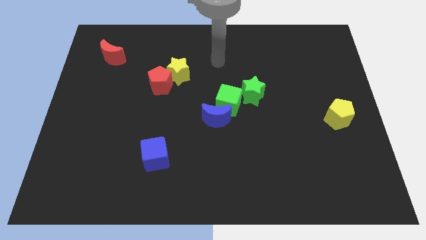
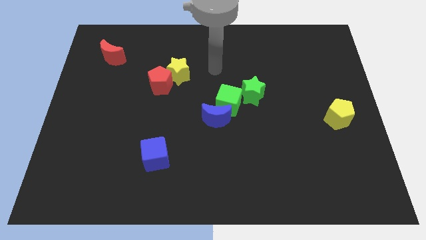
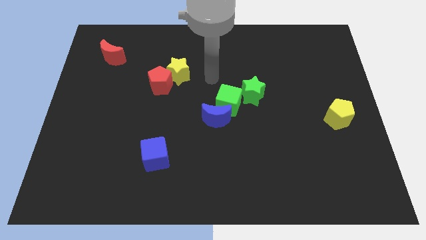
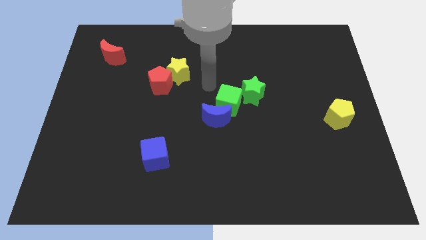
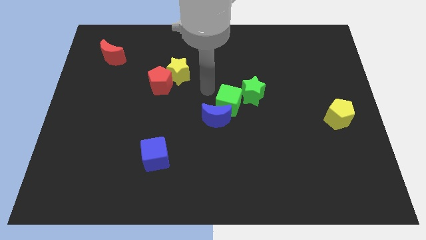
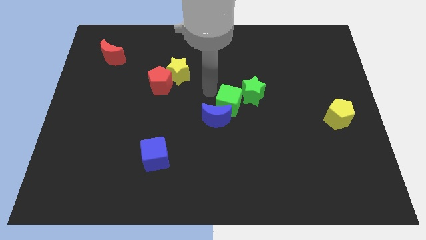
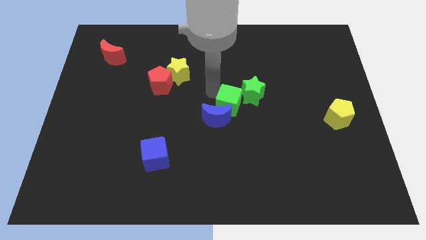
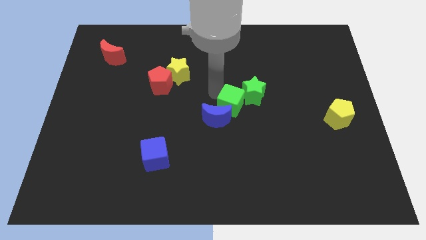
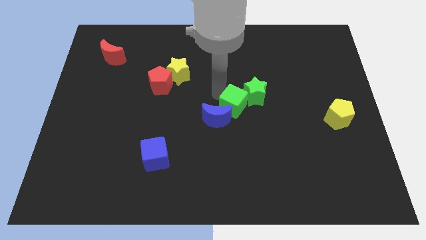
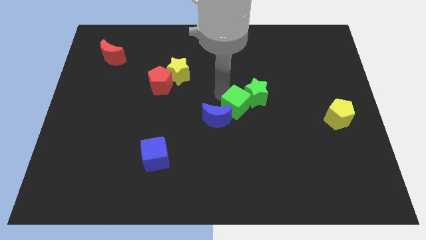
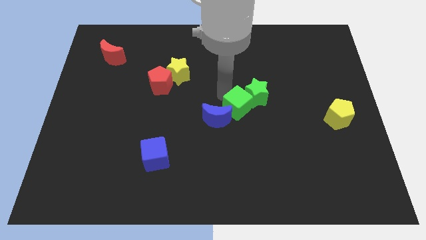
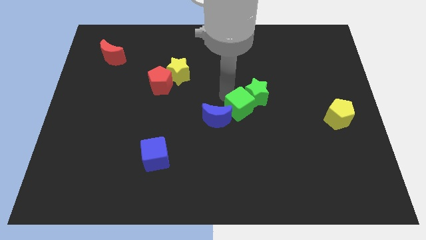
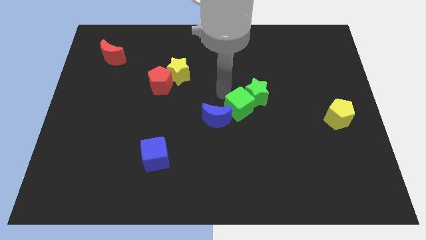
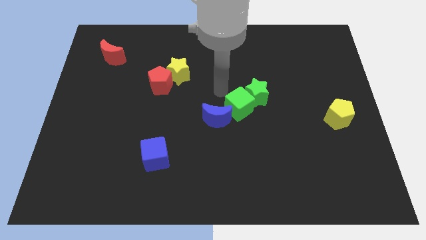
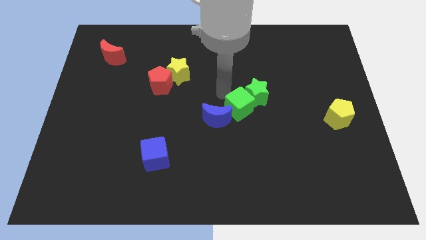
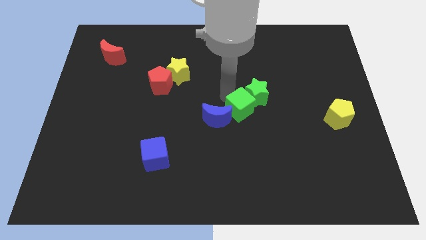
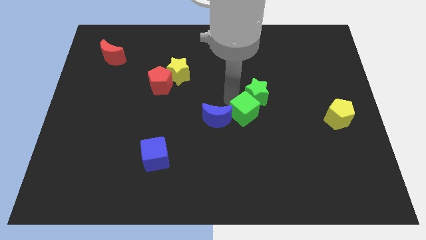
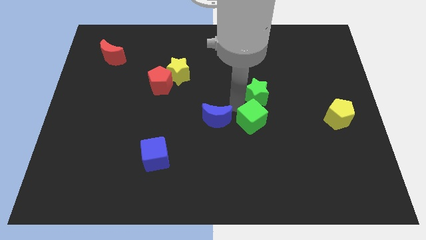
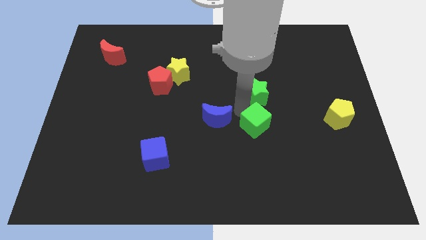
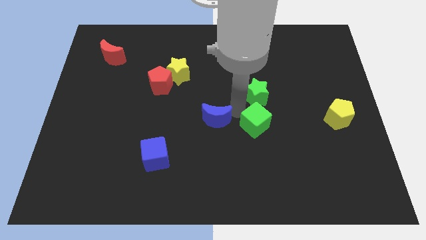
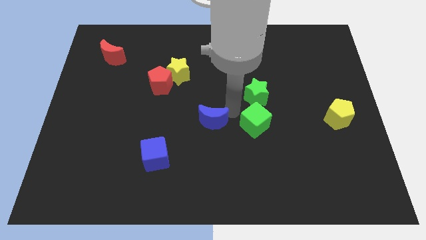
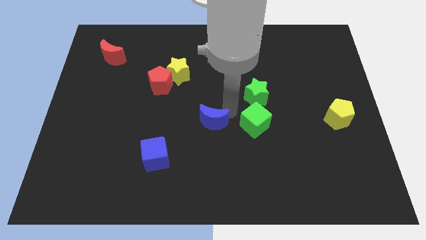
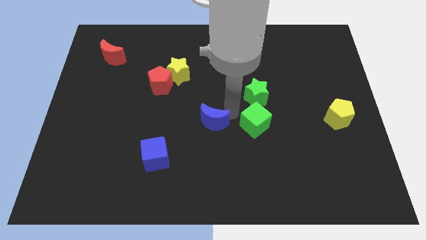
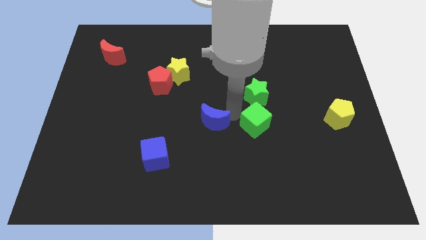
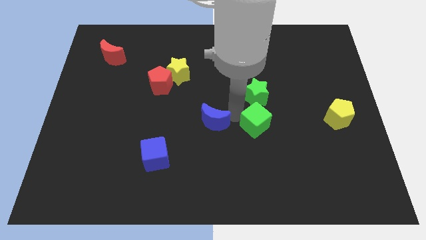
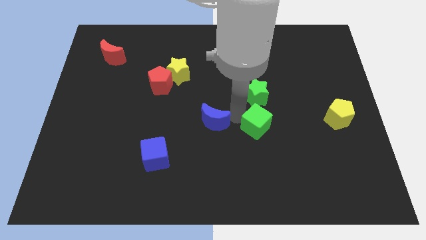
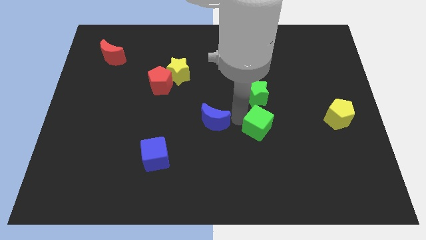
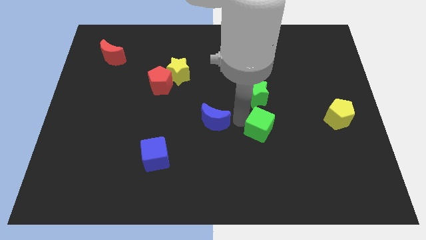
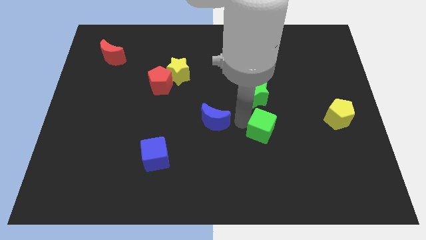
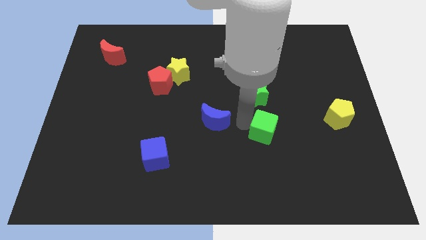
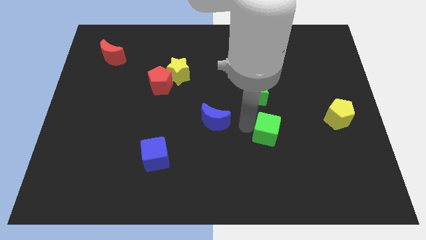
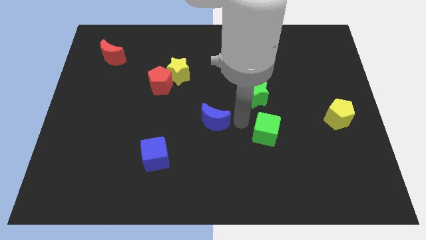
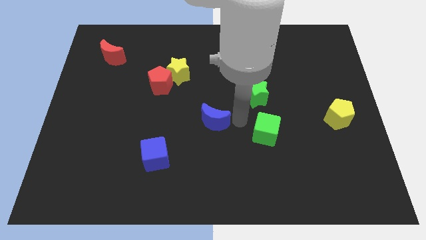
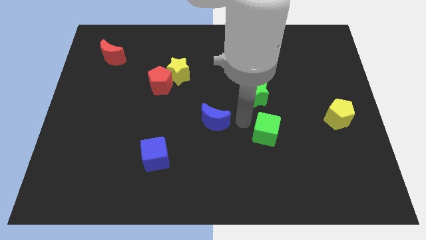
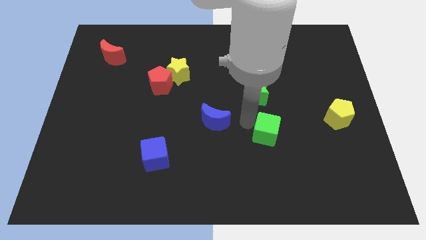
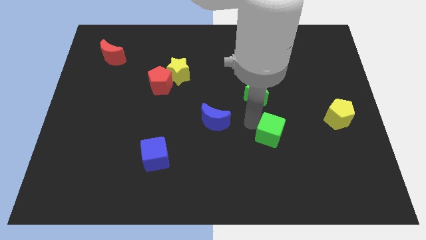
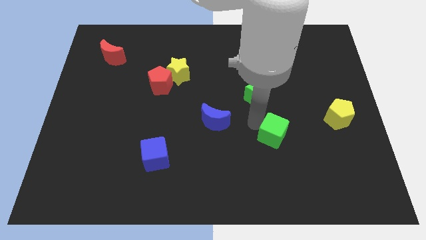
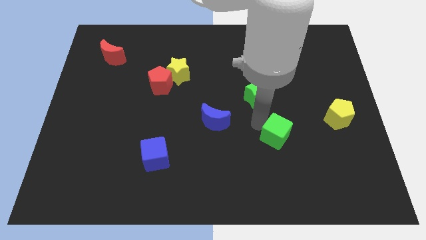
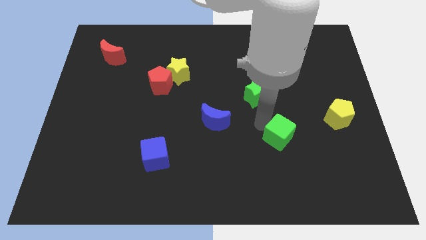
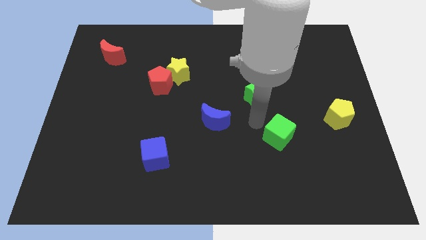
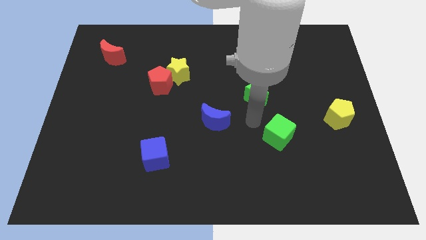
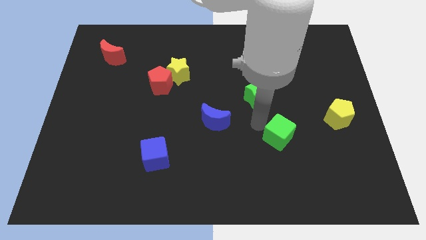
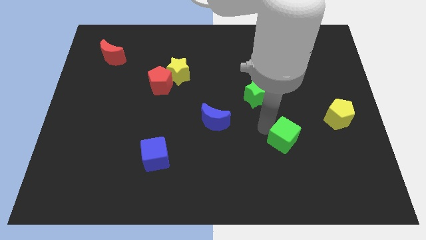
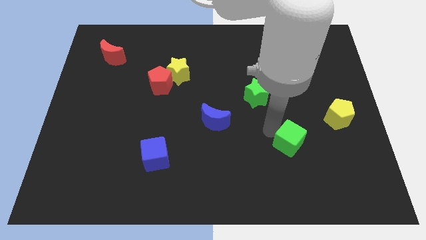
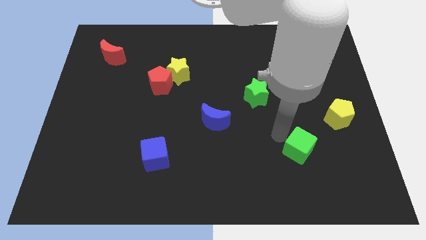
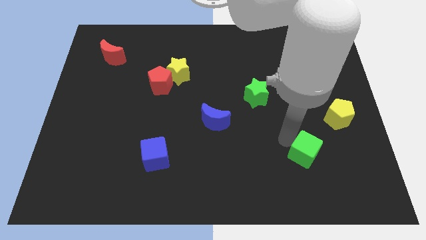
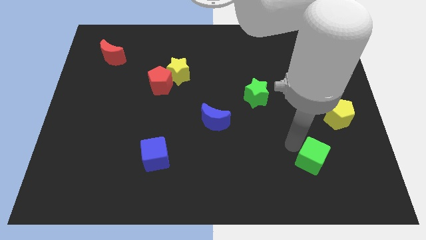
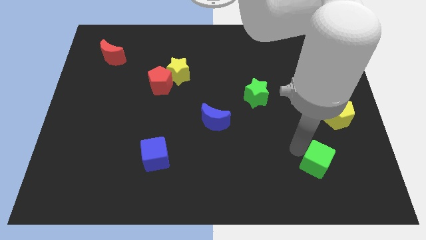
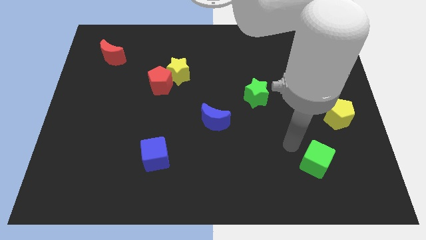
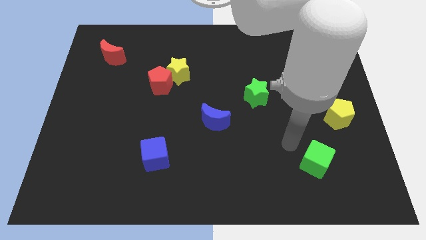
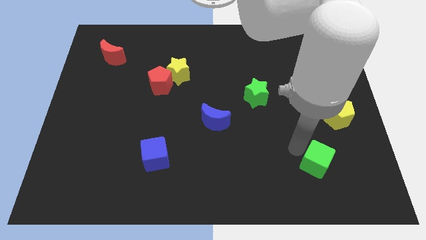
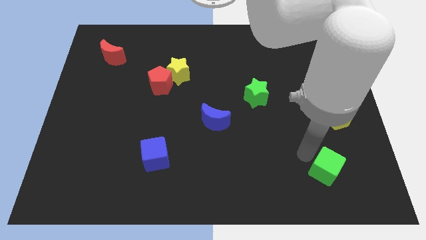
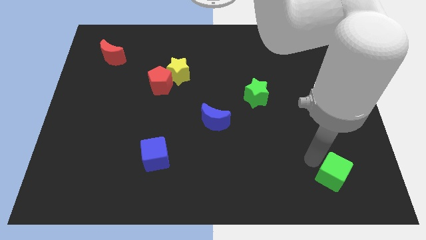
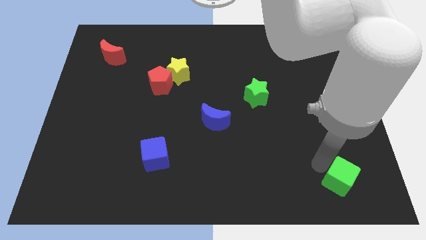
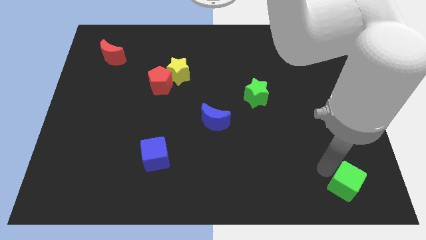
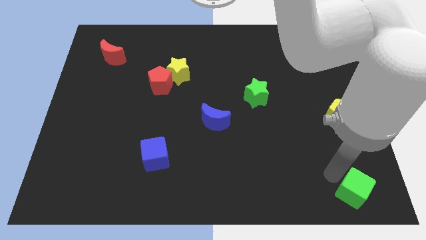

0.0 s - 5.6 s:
move the green cube to the lower right corner

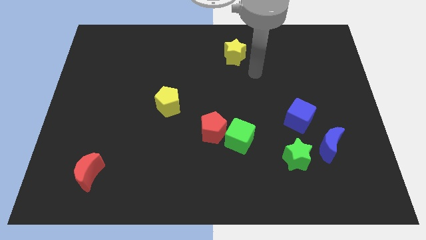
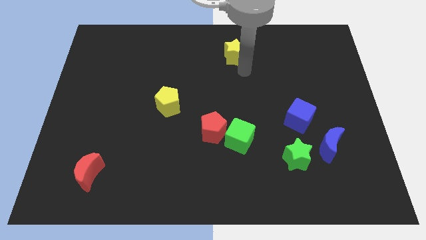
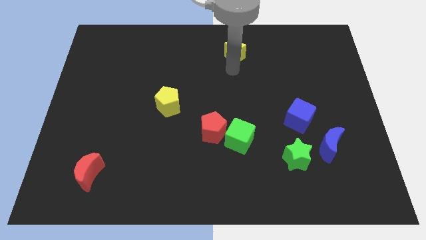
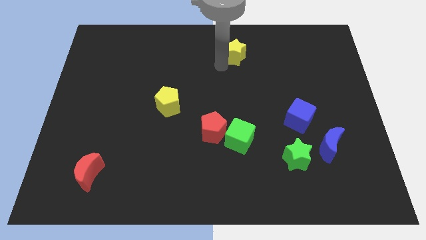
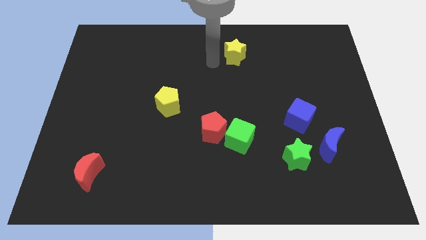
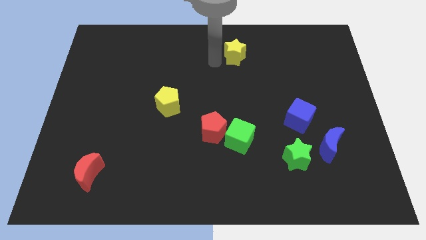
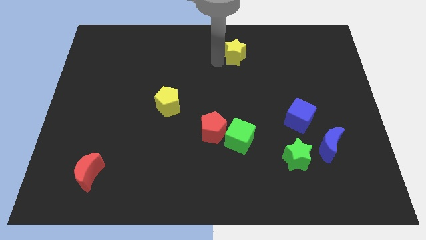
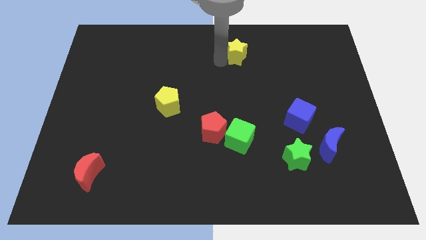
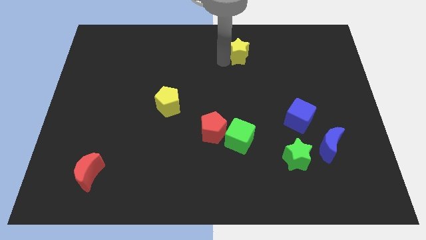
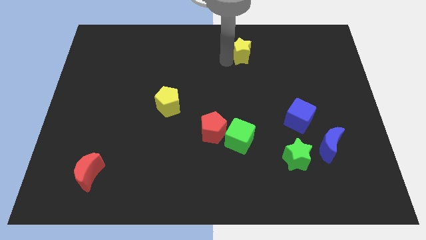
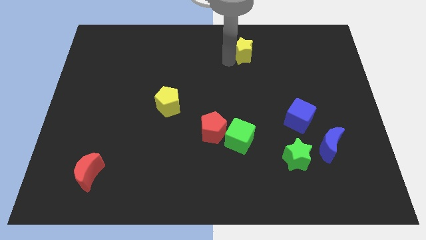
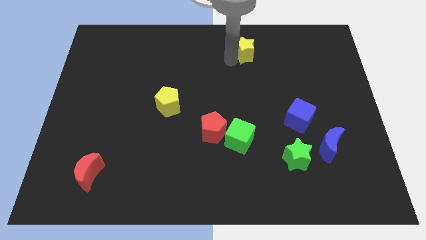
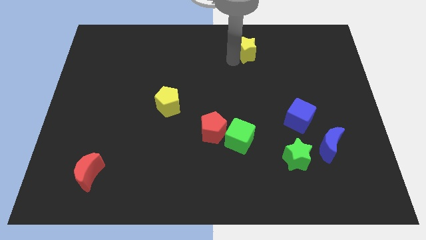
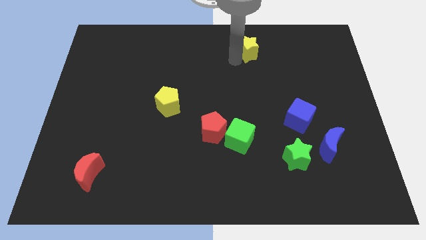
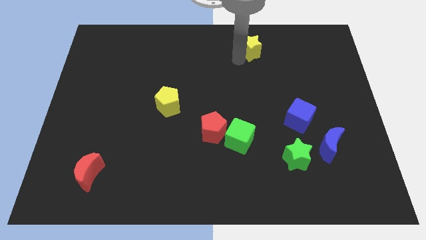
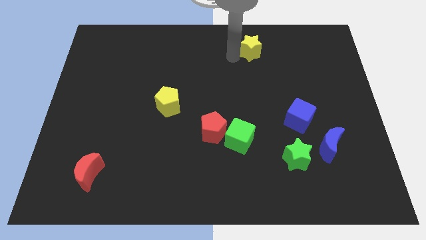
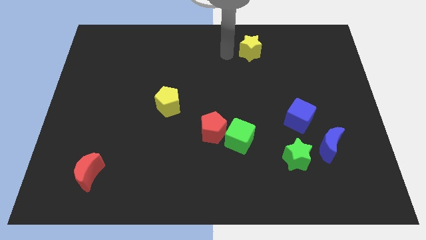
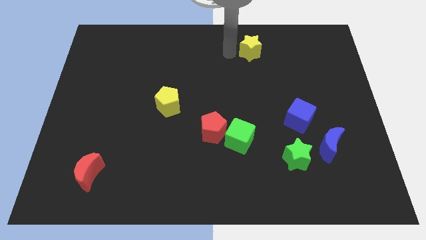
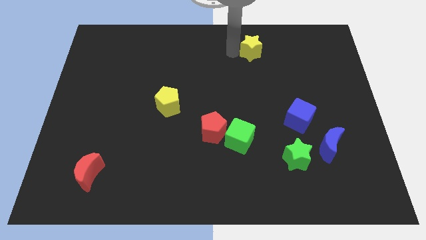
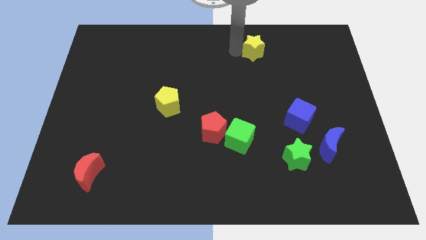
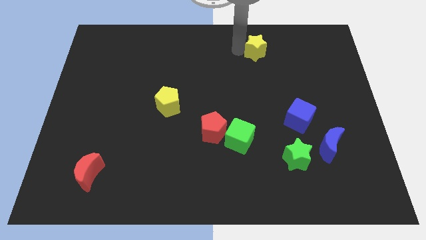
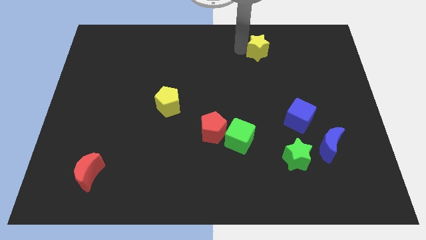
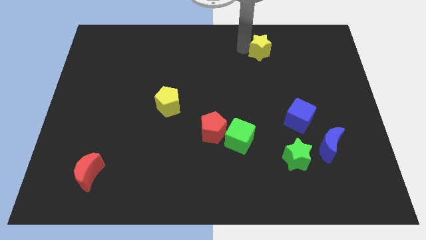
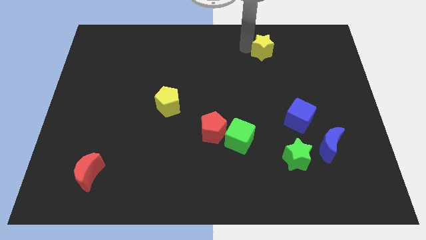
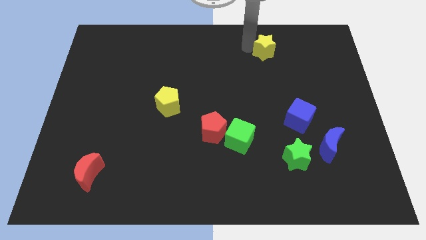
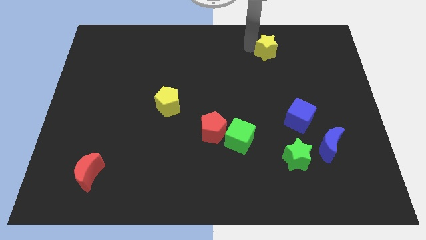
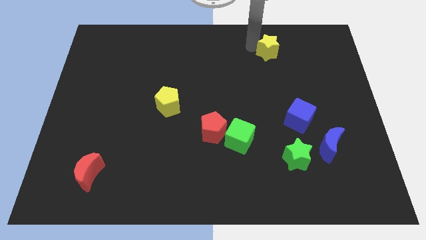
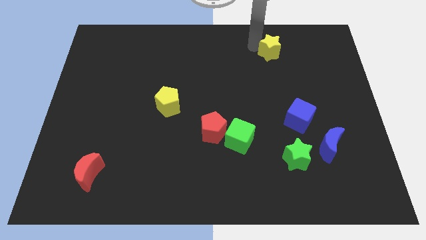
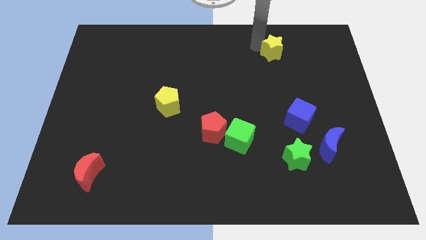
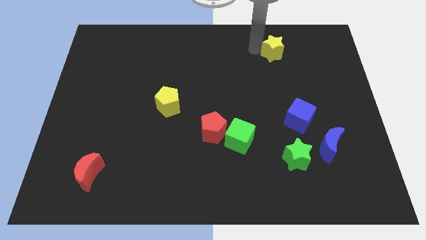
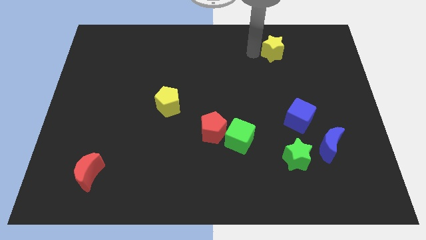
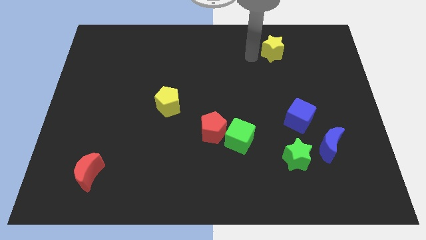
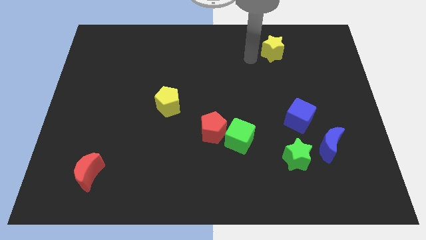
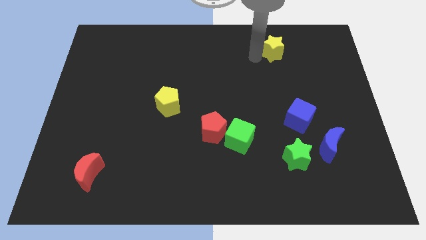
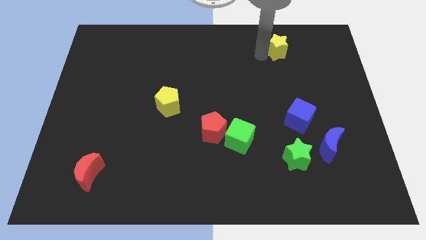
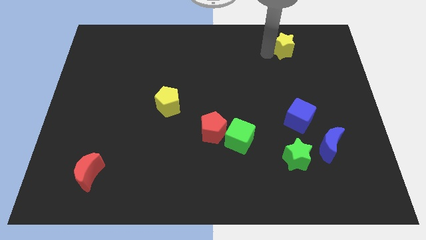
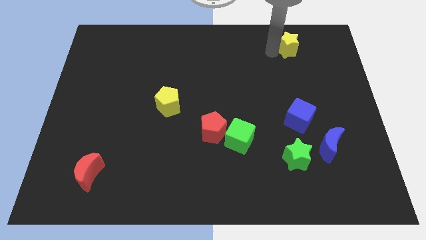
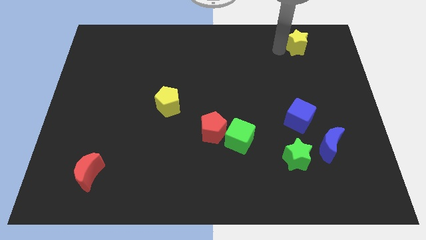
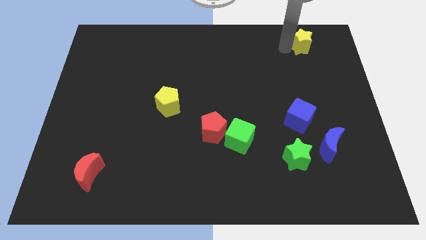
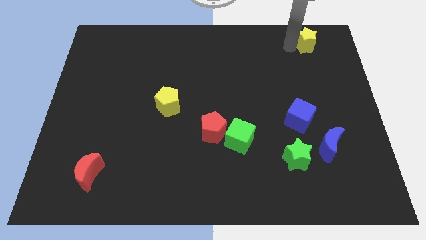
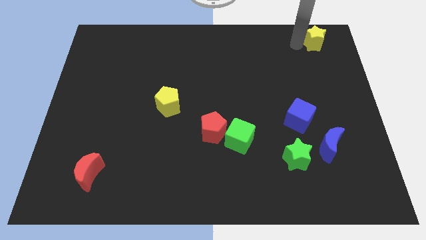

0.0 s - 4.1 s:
push the yellow star to the upper right corner
